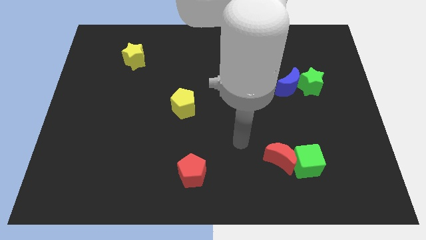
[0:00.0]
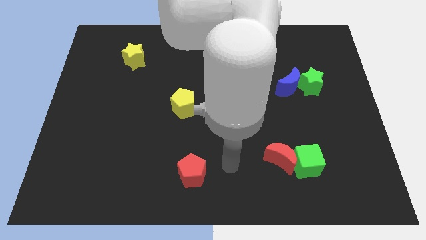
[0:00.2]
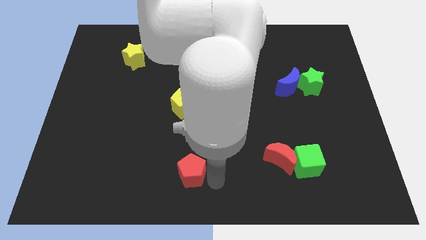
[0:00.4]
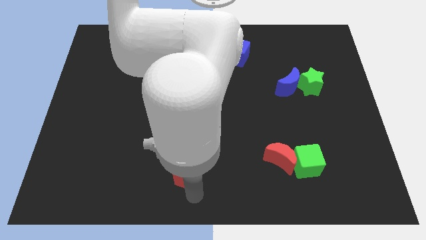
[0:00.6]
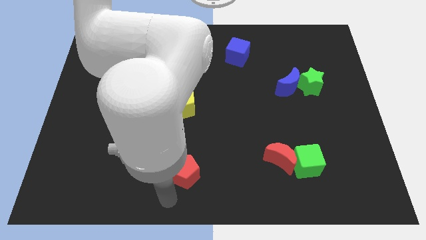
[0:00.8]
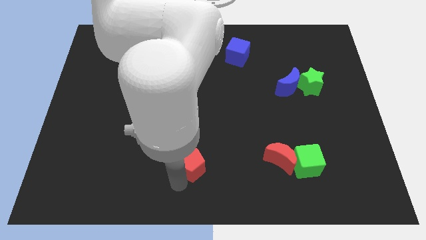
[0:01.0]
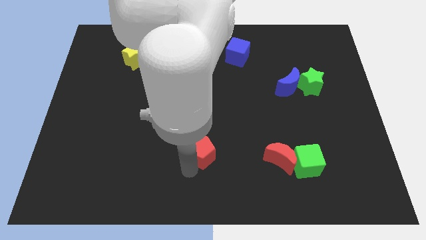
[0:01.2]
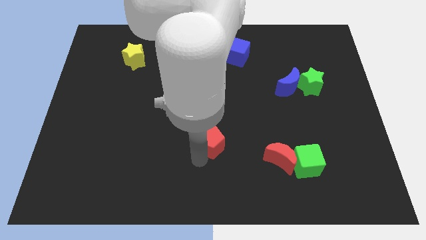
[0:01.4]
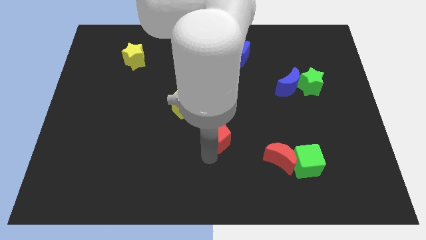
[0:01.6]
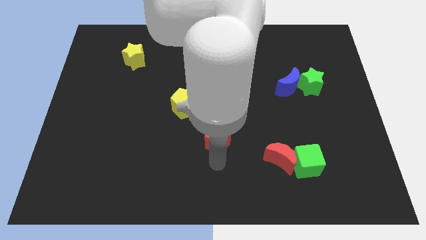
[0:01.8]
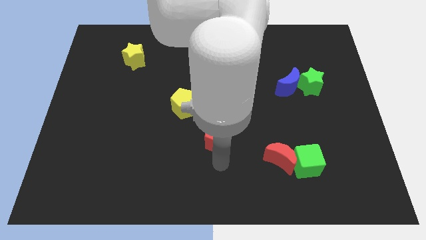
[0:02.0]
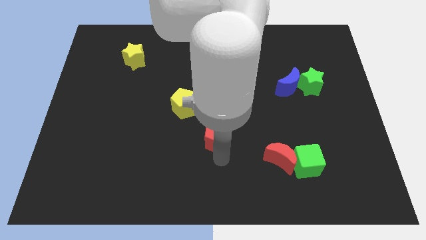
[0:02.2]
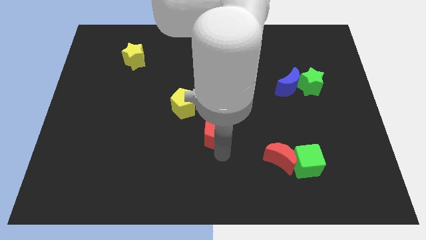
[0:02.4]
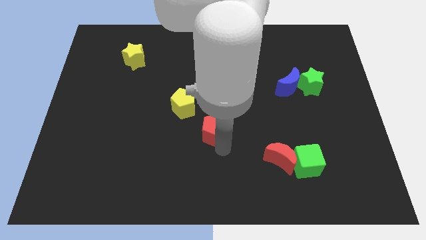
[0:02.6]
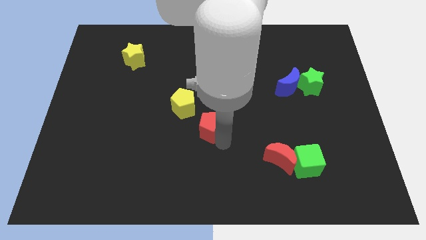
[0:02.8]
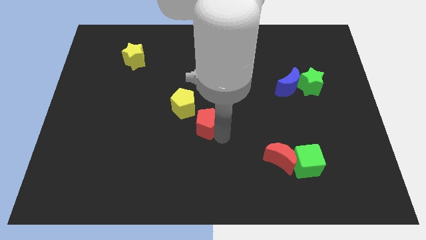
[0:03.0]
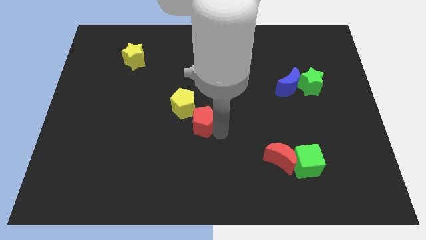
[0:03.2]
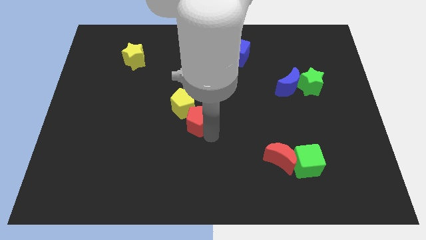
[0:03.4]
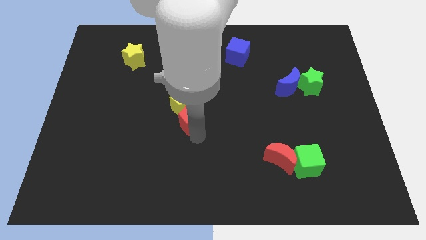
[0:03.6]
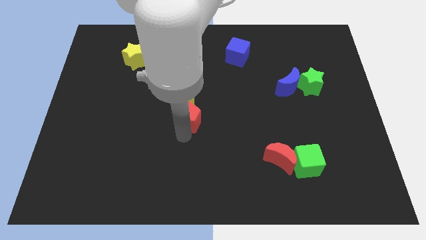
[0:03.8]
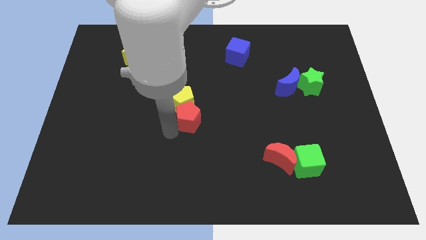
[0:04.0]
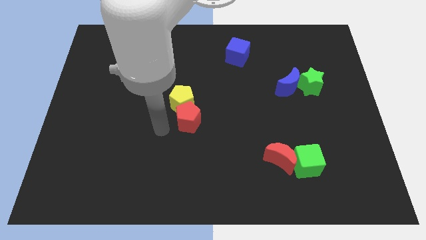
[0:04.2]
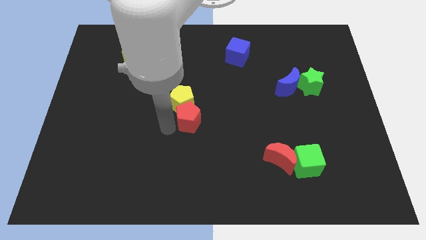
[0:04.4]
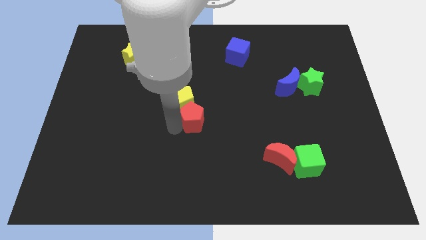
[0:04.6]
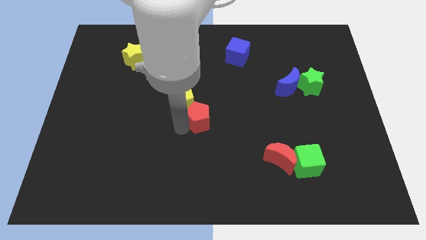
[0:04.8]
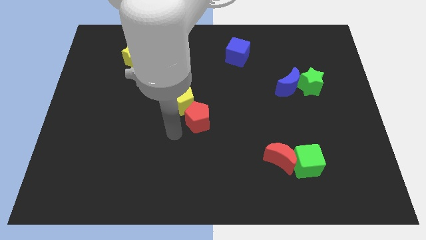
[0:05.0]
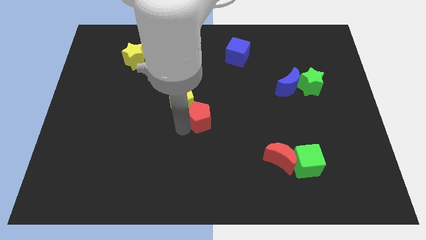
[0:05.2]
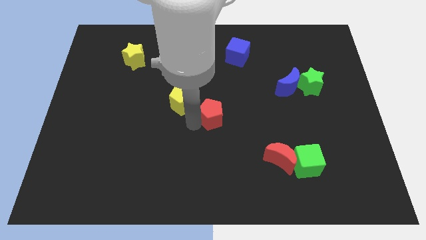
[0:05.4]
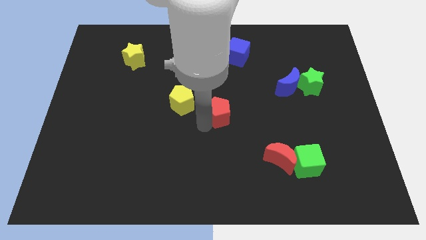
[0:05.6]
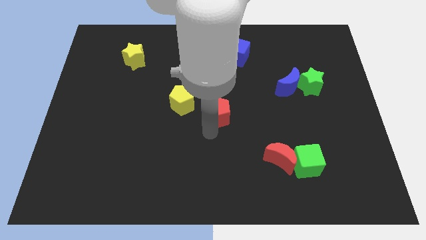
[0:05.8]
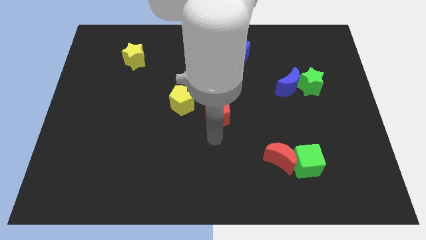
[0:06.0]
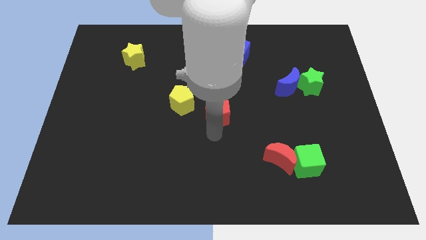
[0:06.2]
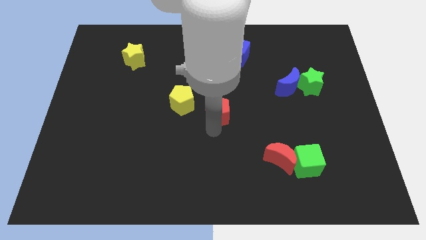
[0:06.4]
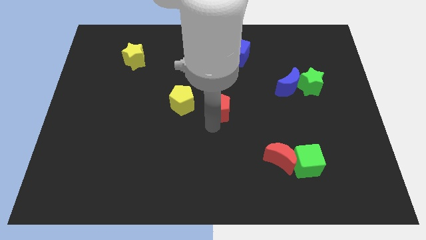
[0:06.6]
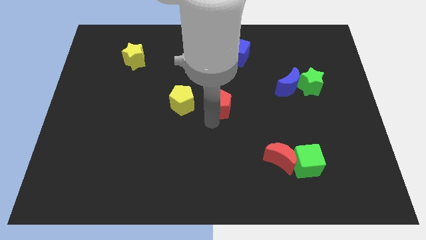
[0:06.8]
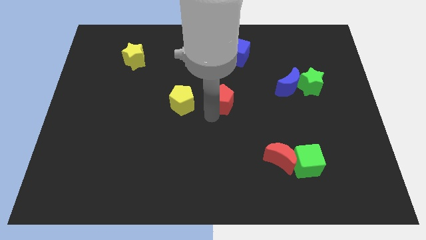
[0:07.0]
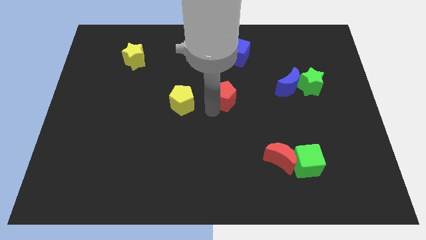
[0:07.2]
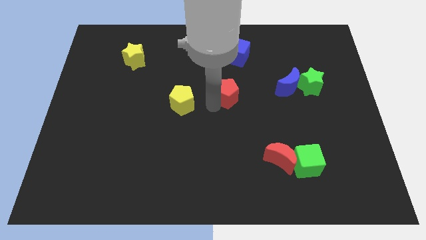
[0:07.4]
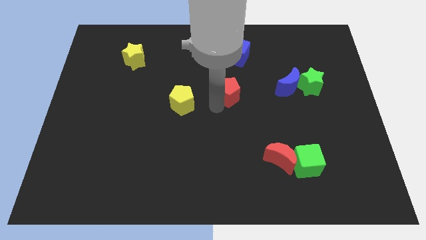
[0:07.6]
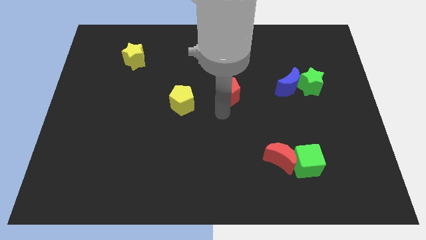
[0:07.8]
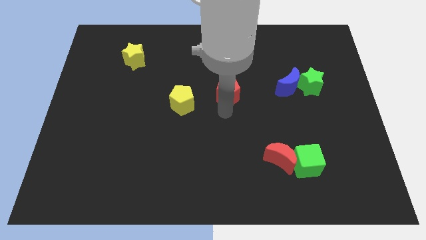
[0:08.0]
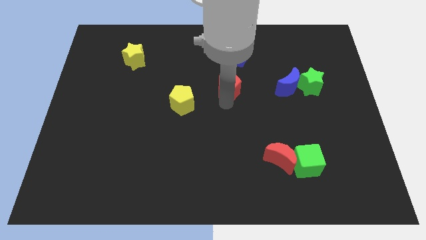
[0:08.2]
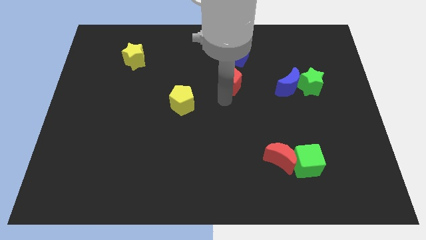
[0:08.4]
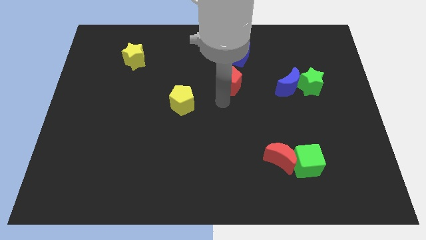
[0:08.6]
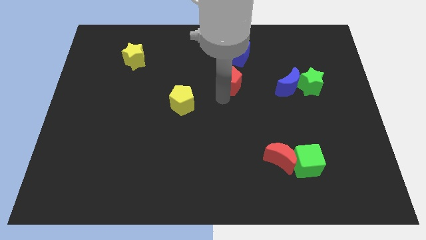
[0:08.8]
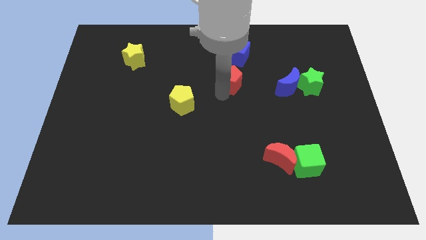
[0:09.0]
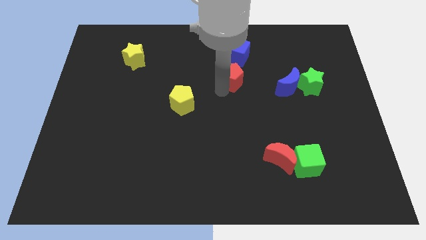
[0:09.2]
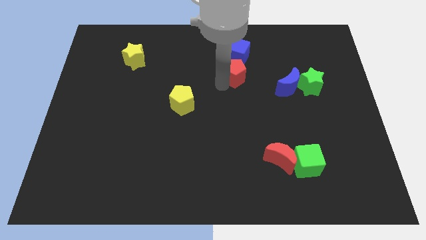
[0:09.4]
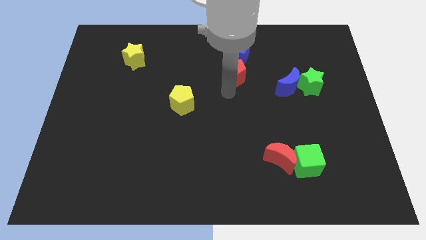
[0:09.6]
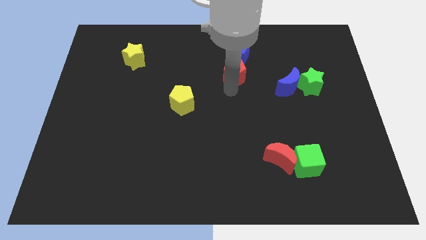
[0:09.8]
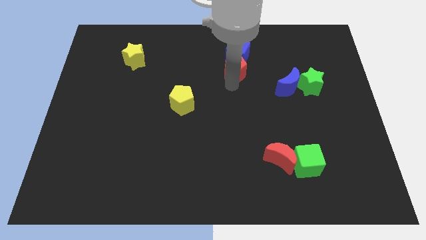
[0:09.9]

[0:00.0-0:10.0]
move the red pentagon to the blue cube

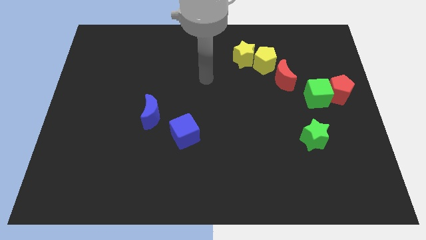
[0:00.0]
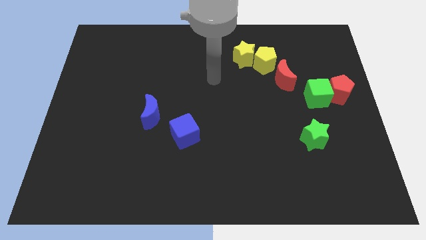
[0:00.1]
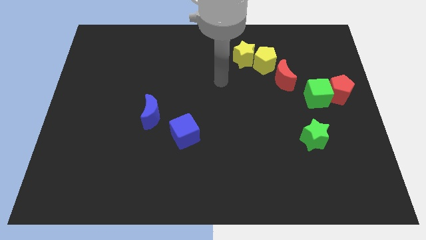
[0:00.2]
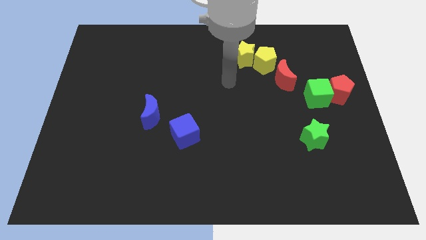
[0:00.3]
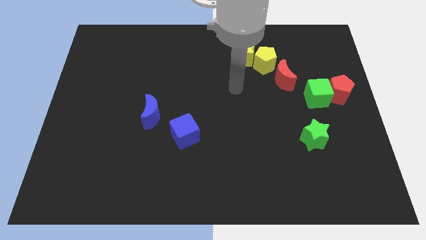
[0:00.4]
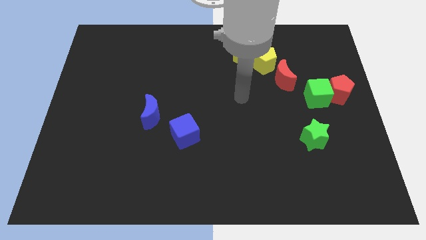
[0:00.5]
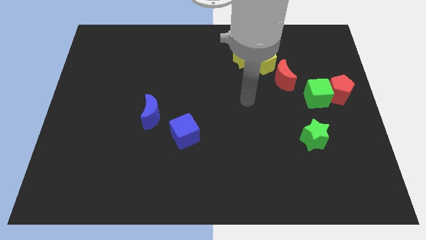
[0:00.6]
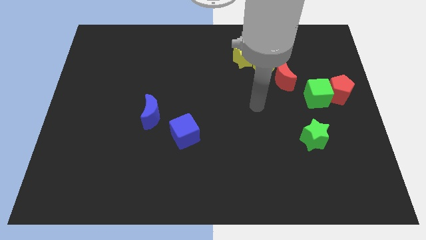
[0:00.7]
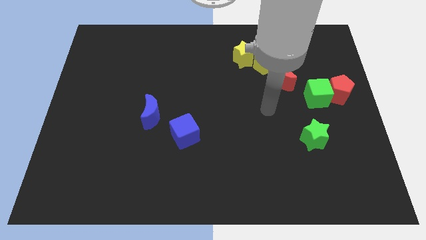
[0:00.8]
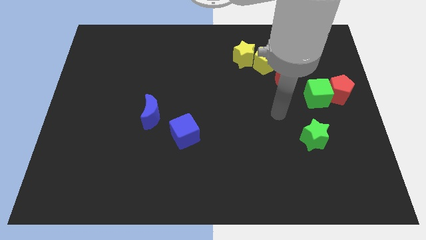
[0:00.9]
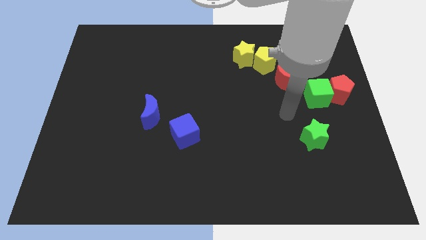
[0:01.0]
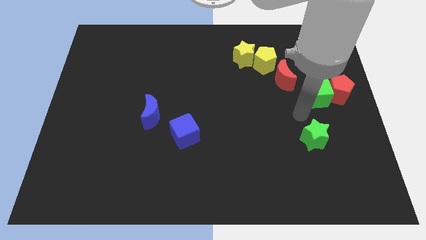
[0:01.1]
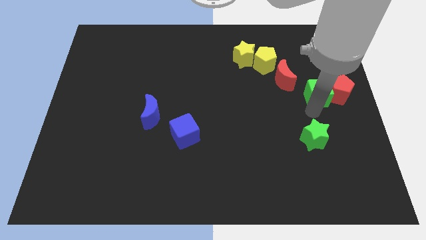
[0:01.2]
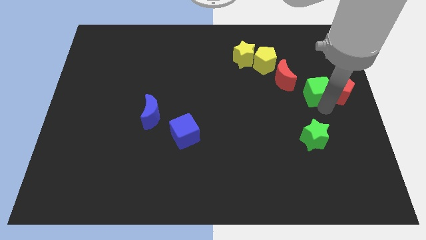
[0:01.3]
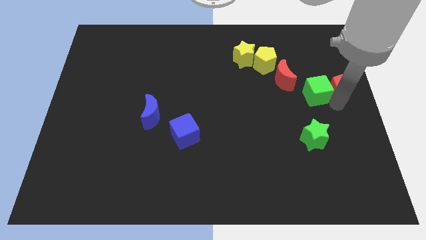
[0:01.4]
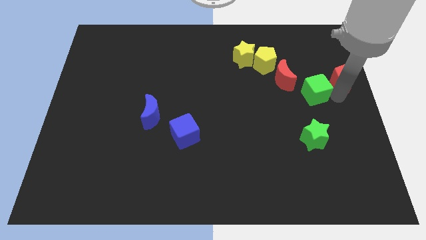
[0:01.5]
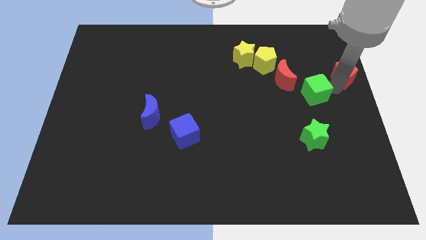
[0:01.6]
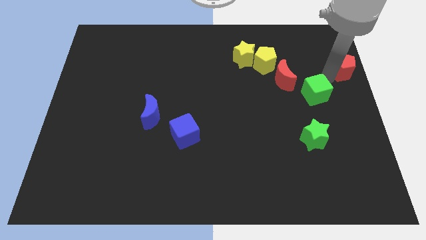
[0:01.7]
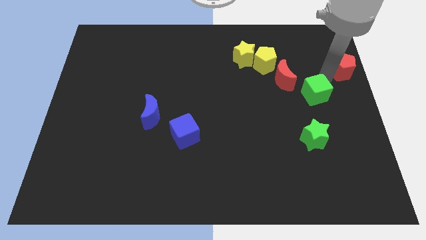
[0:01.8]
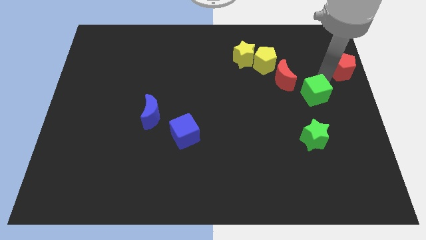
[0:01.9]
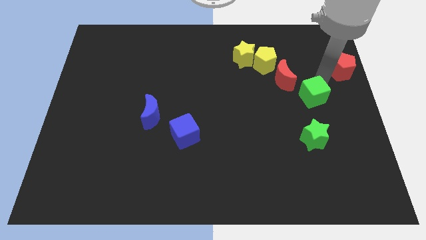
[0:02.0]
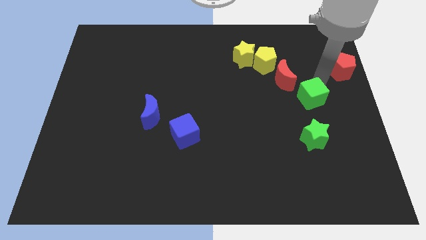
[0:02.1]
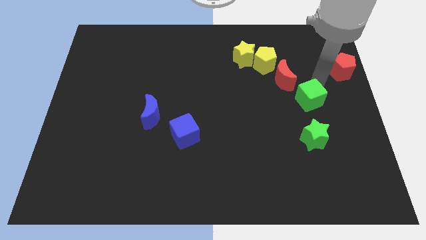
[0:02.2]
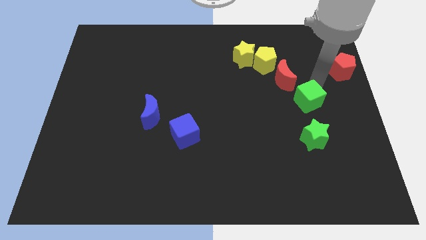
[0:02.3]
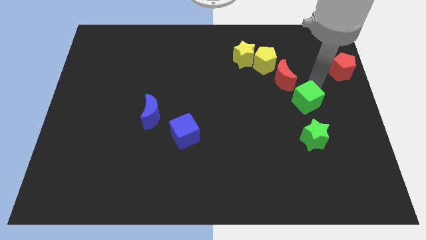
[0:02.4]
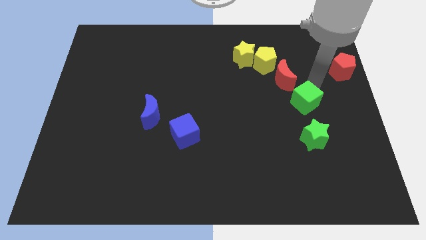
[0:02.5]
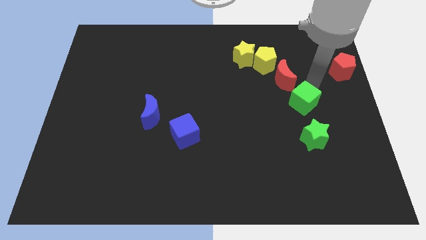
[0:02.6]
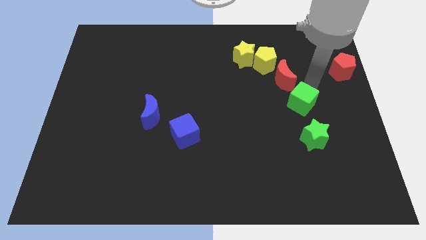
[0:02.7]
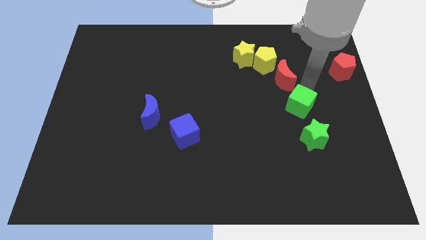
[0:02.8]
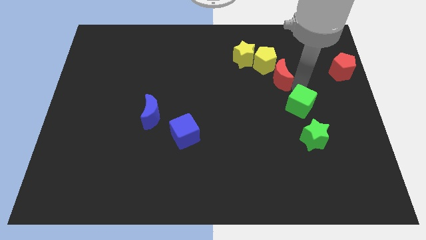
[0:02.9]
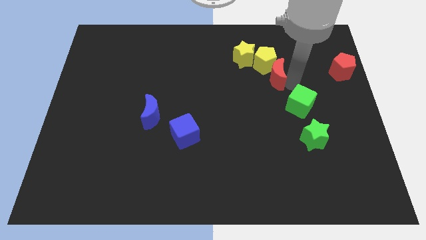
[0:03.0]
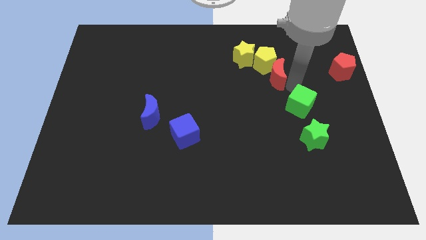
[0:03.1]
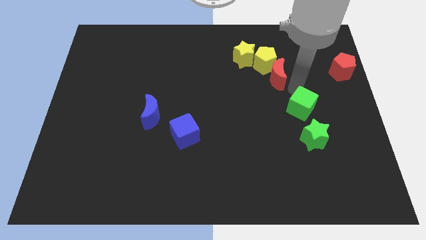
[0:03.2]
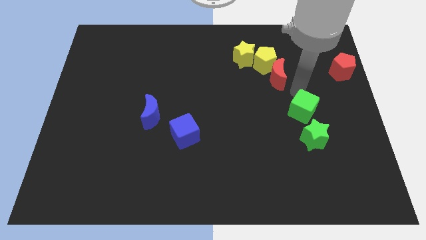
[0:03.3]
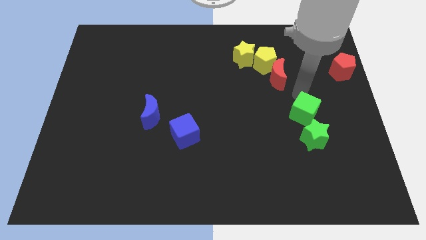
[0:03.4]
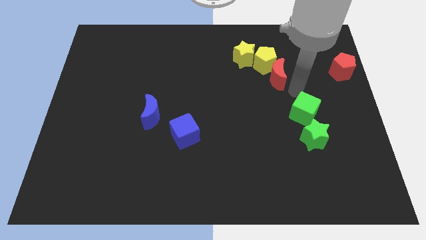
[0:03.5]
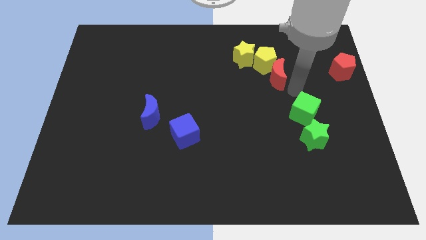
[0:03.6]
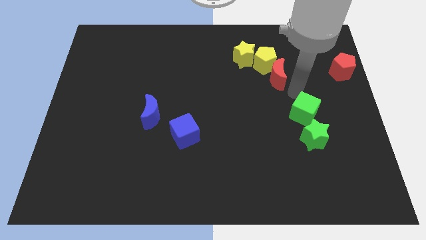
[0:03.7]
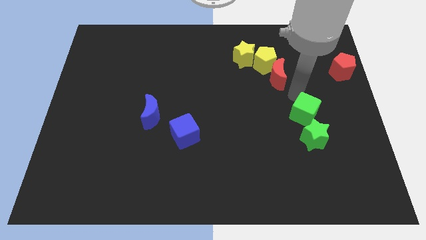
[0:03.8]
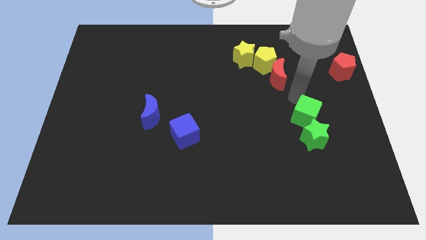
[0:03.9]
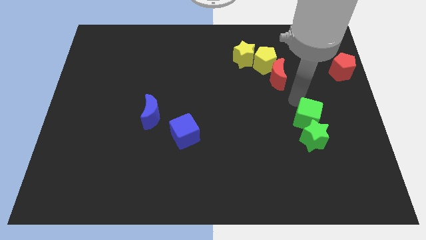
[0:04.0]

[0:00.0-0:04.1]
slide the green cube close to the green star
